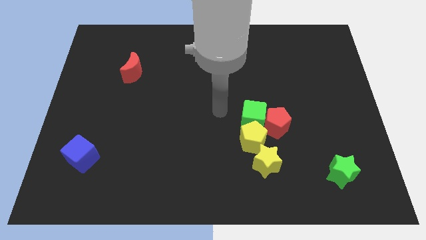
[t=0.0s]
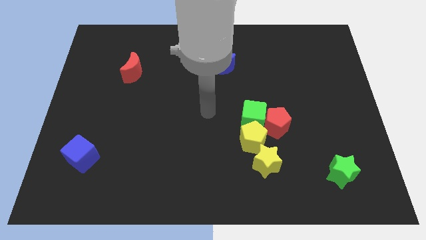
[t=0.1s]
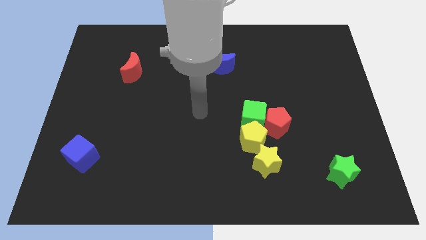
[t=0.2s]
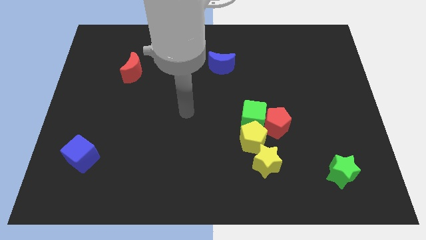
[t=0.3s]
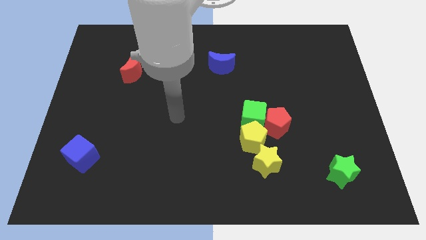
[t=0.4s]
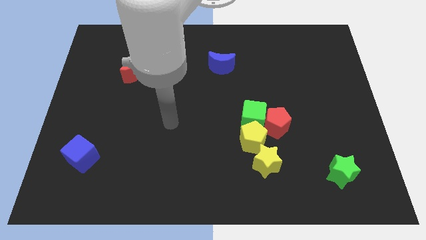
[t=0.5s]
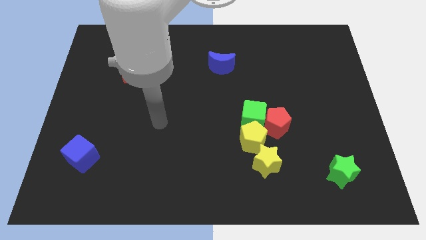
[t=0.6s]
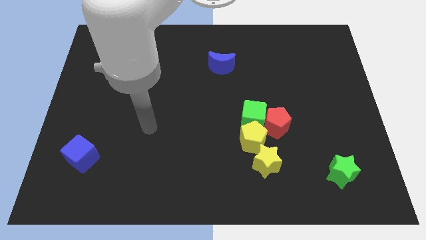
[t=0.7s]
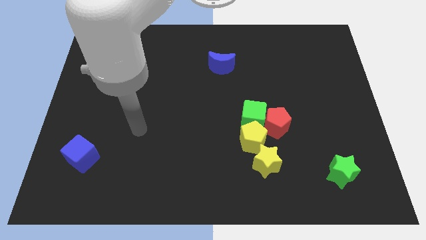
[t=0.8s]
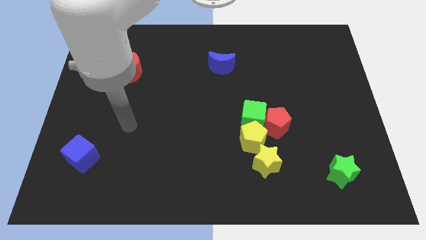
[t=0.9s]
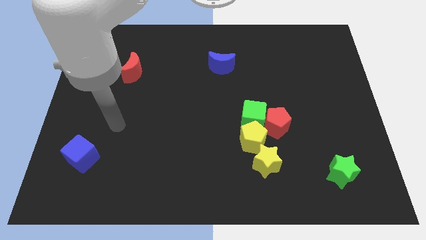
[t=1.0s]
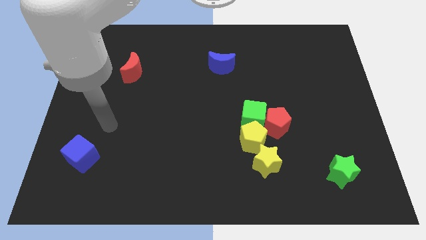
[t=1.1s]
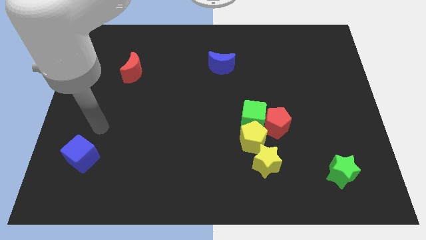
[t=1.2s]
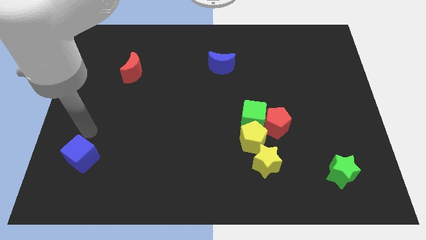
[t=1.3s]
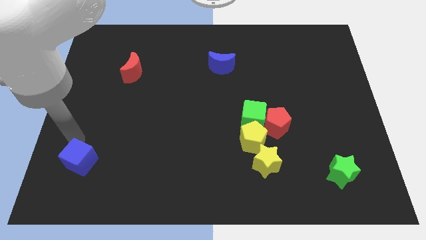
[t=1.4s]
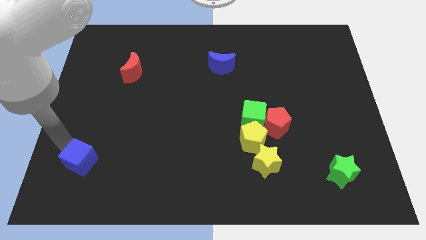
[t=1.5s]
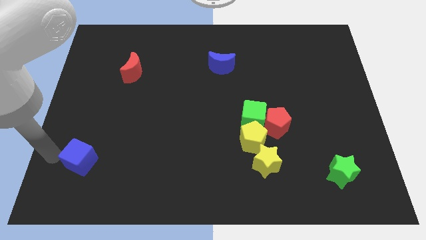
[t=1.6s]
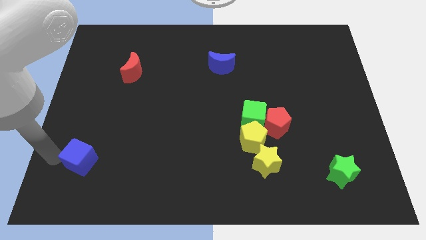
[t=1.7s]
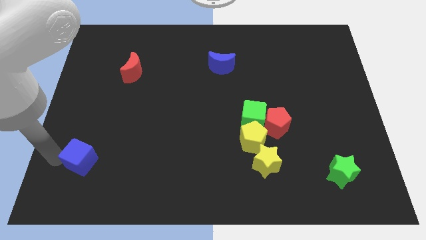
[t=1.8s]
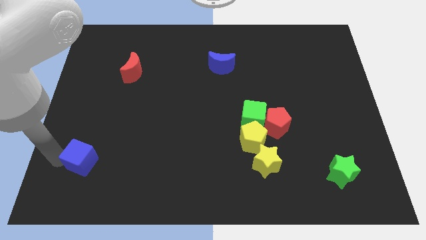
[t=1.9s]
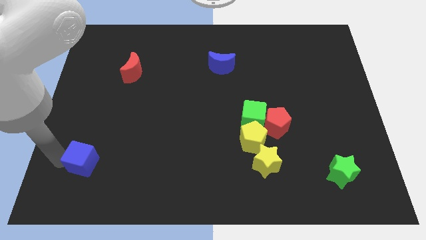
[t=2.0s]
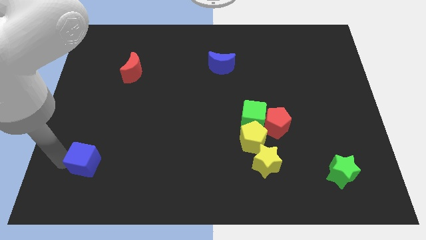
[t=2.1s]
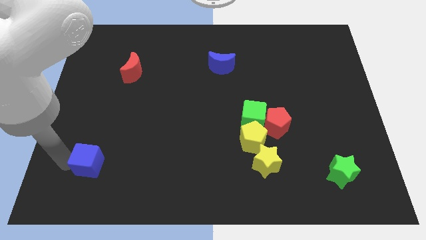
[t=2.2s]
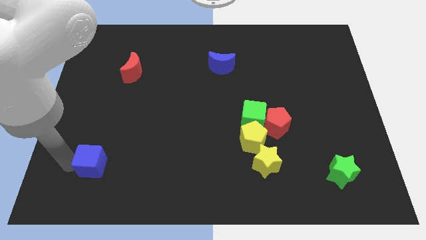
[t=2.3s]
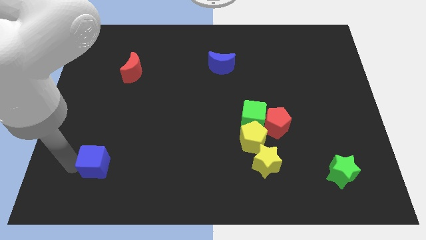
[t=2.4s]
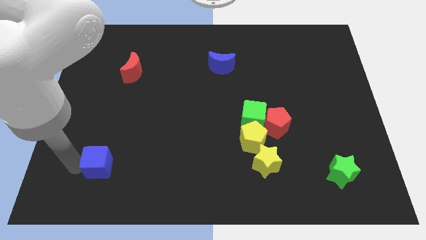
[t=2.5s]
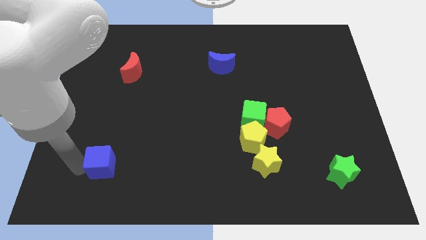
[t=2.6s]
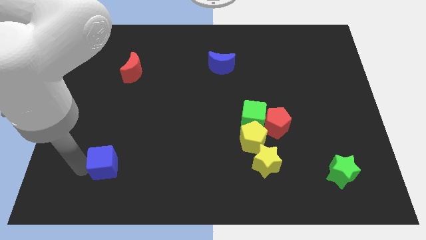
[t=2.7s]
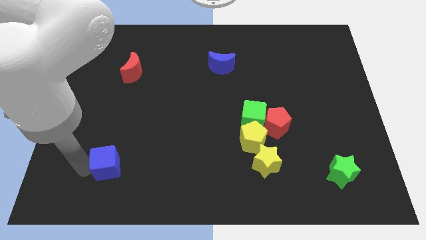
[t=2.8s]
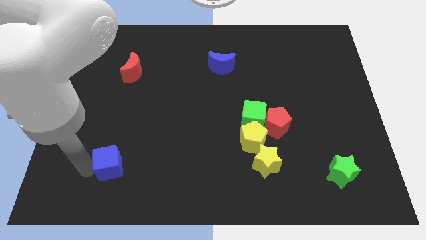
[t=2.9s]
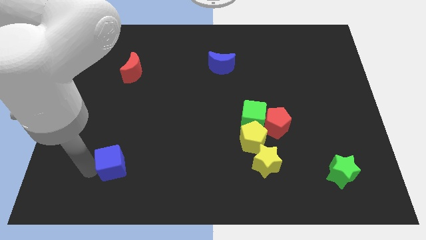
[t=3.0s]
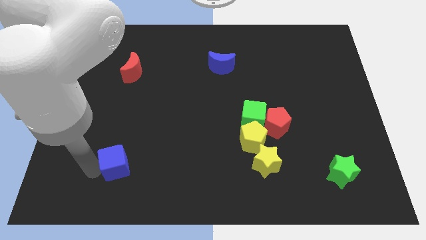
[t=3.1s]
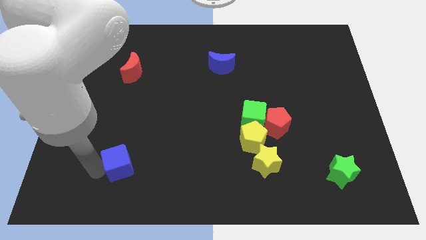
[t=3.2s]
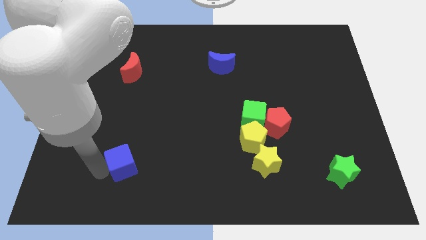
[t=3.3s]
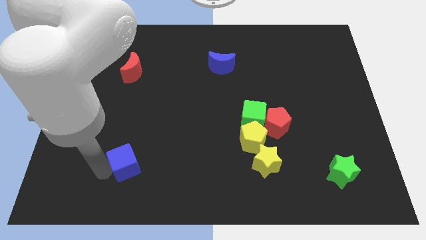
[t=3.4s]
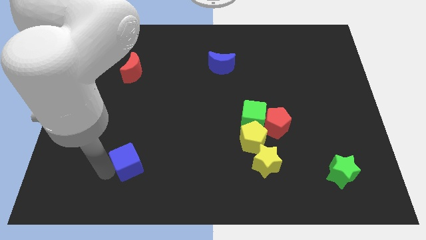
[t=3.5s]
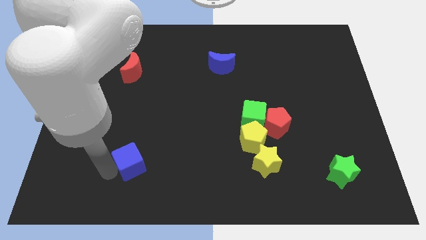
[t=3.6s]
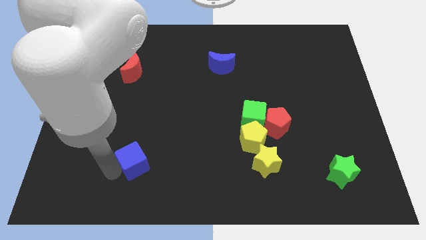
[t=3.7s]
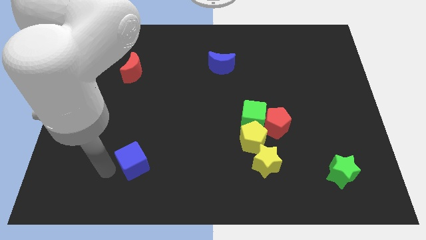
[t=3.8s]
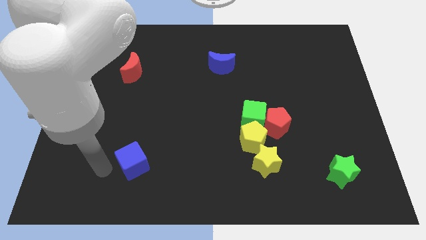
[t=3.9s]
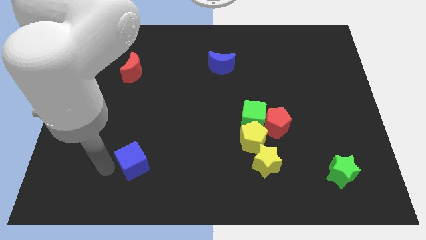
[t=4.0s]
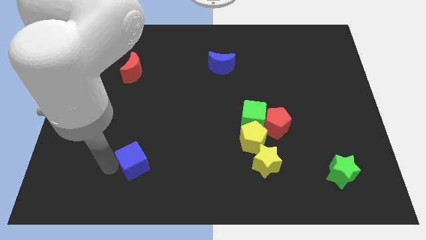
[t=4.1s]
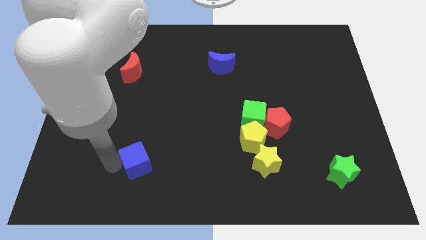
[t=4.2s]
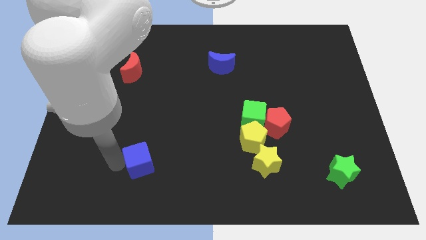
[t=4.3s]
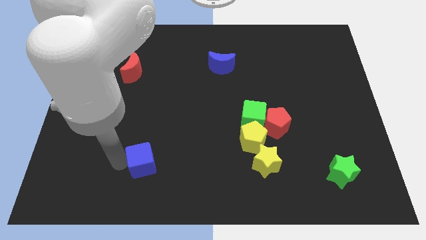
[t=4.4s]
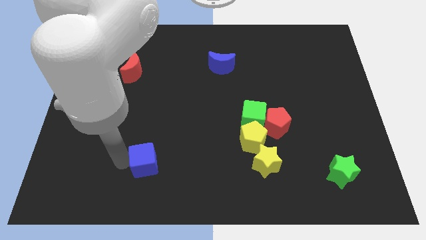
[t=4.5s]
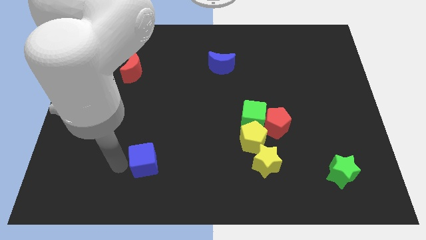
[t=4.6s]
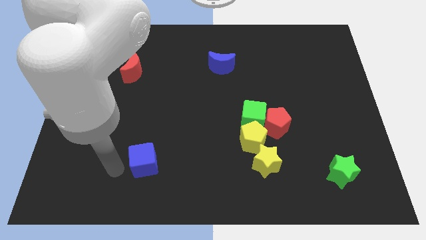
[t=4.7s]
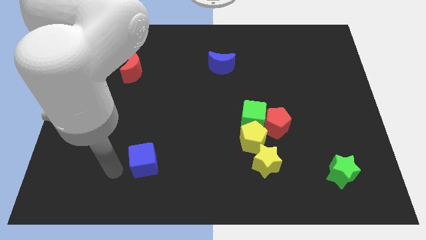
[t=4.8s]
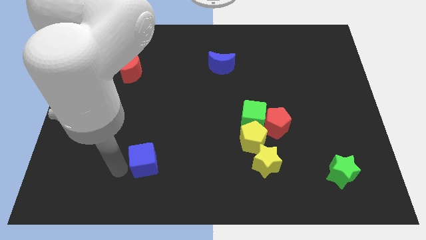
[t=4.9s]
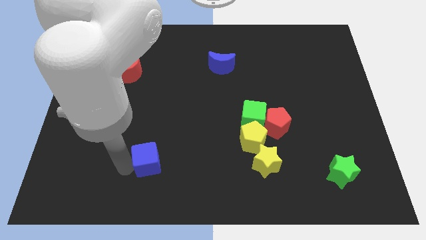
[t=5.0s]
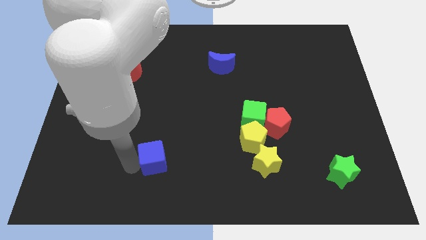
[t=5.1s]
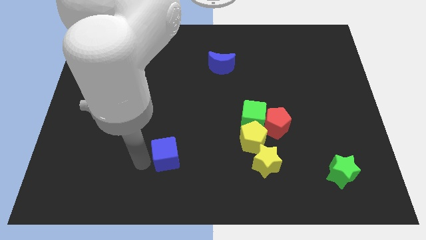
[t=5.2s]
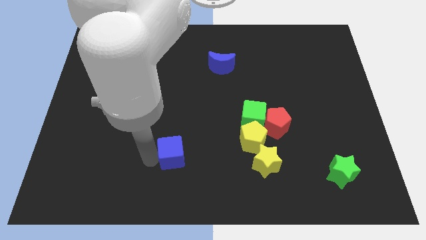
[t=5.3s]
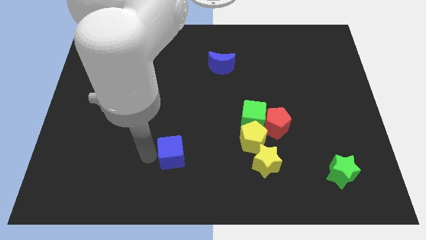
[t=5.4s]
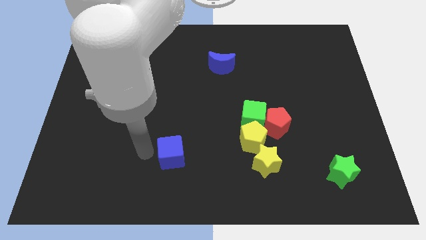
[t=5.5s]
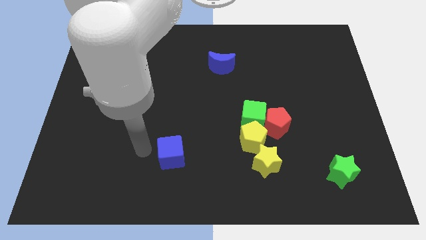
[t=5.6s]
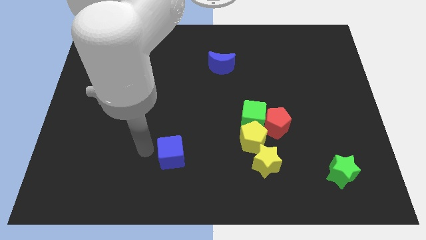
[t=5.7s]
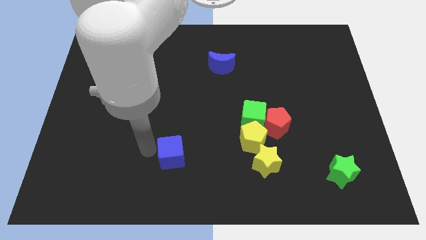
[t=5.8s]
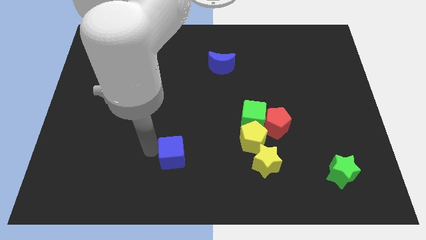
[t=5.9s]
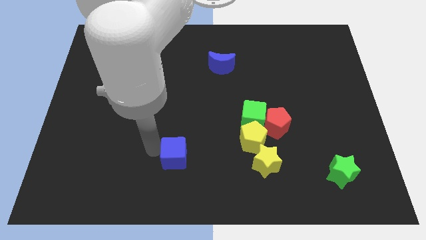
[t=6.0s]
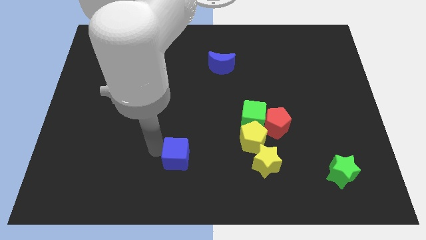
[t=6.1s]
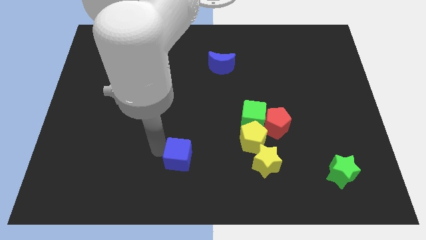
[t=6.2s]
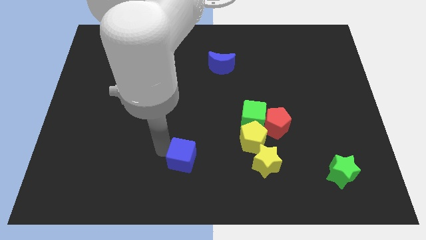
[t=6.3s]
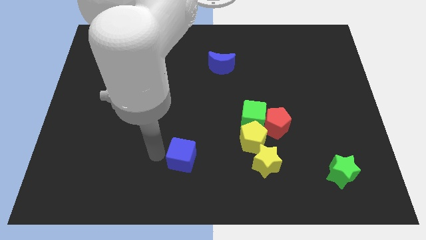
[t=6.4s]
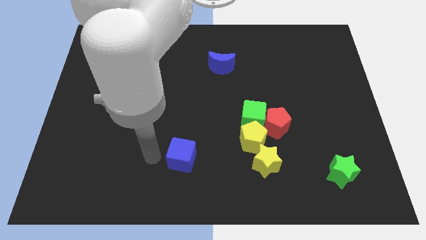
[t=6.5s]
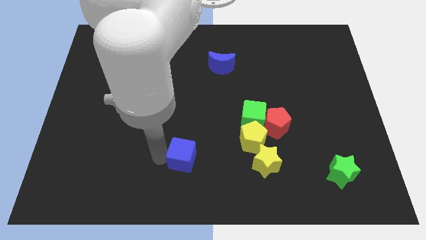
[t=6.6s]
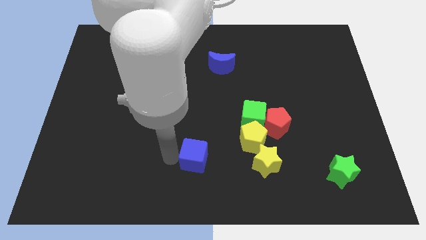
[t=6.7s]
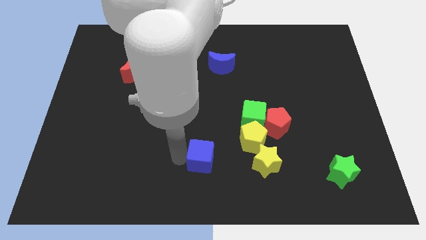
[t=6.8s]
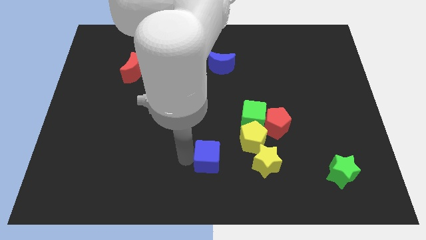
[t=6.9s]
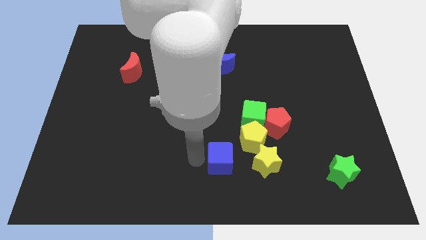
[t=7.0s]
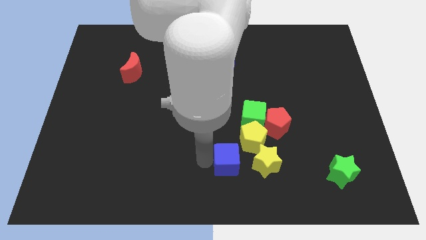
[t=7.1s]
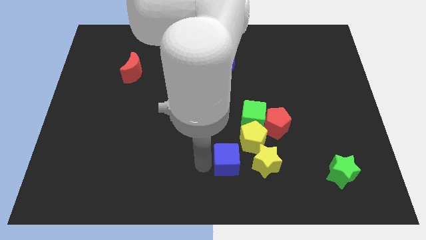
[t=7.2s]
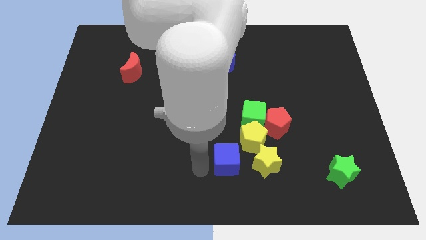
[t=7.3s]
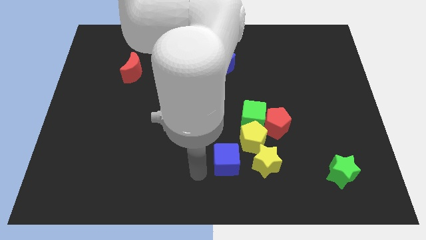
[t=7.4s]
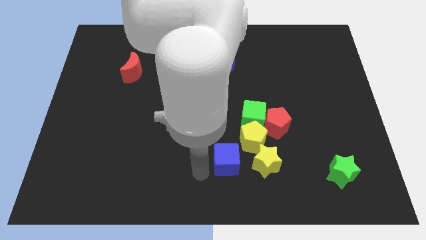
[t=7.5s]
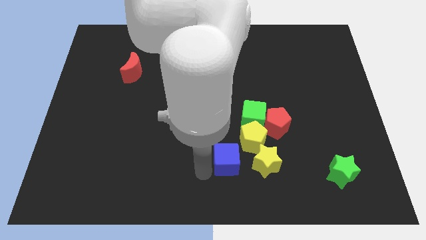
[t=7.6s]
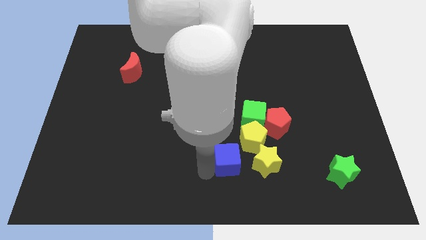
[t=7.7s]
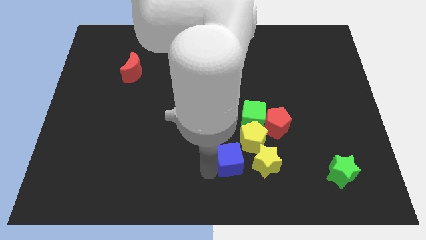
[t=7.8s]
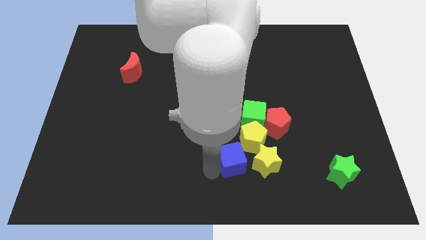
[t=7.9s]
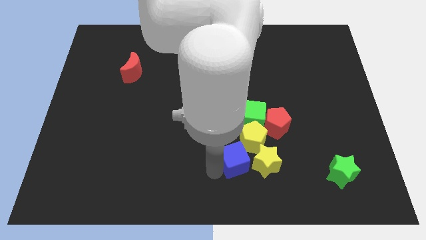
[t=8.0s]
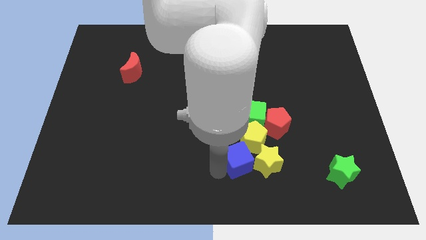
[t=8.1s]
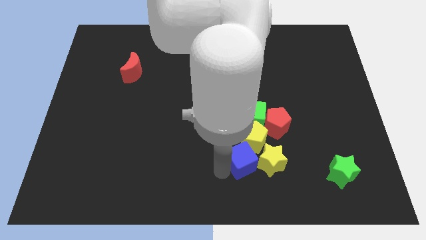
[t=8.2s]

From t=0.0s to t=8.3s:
slide the blue cube diagonally down and to the left of the red pentagon
